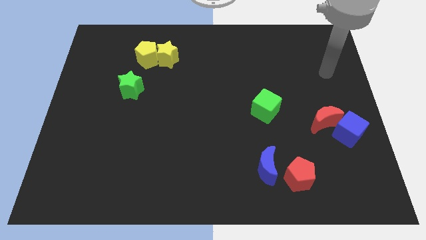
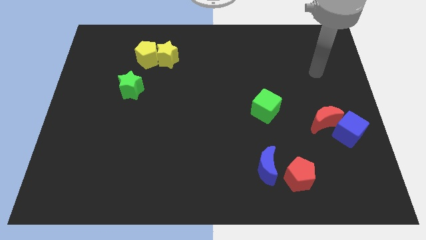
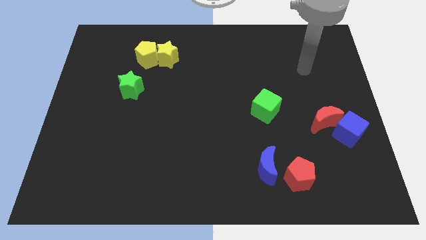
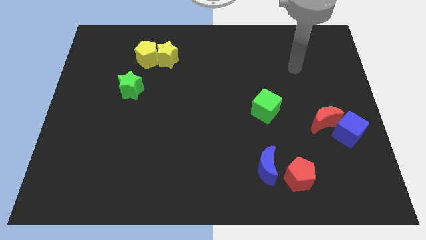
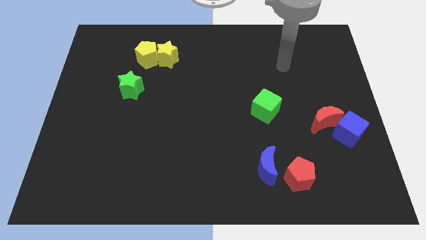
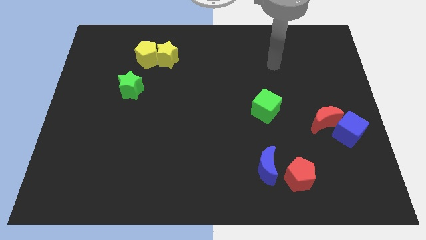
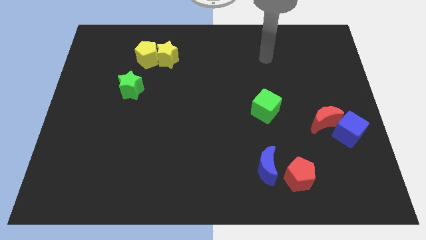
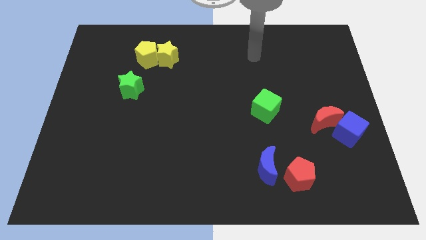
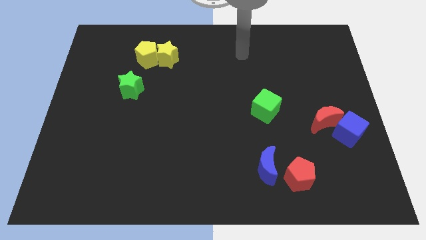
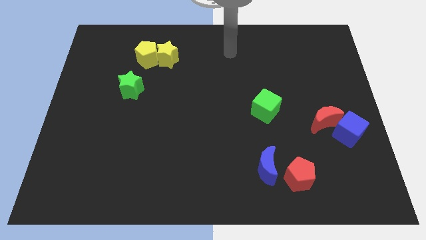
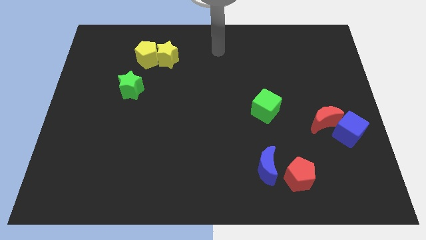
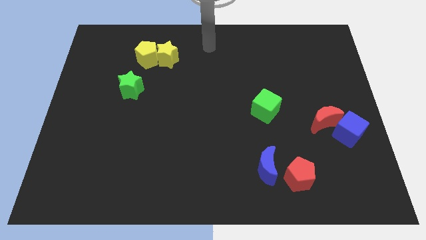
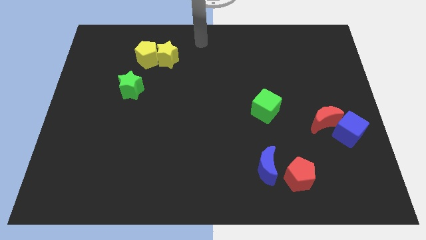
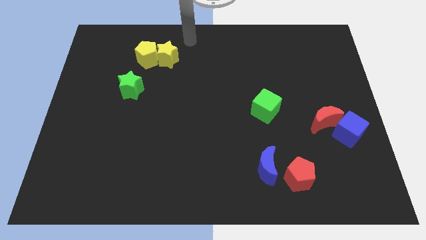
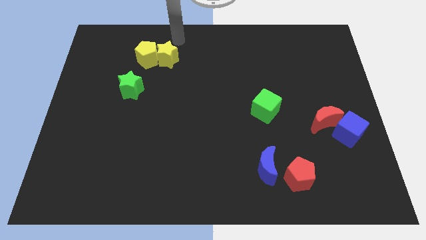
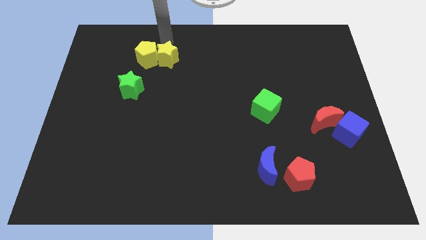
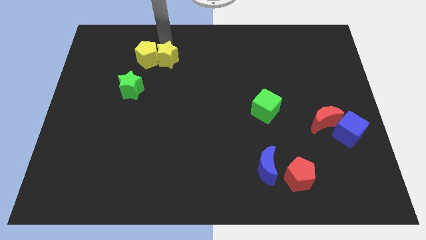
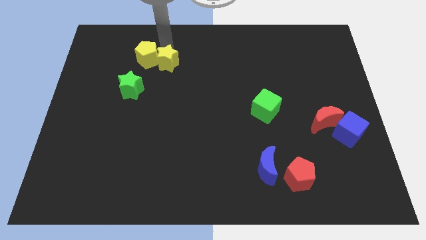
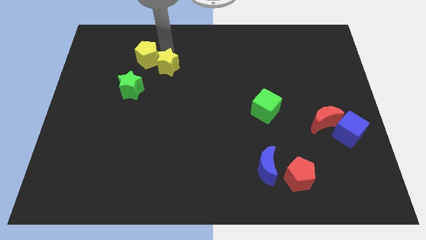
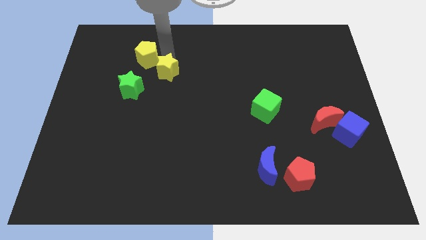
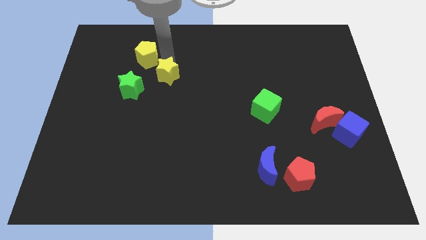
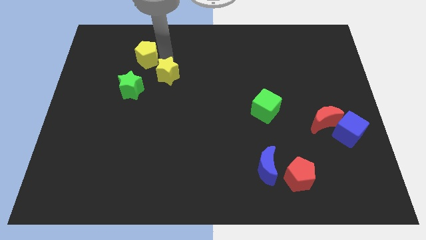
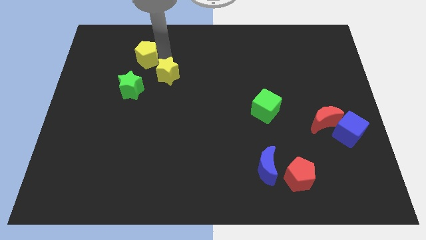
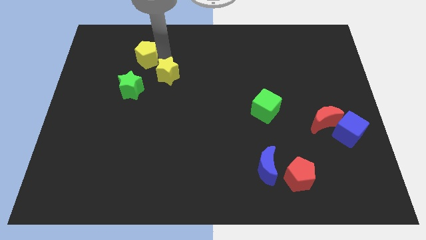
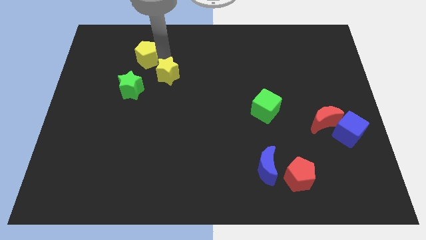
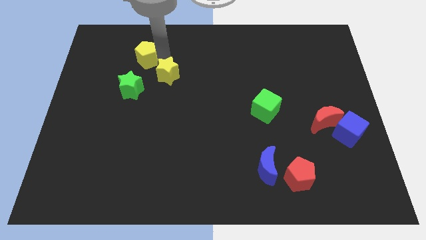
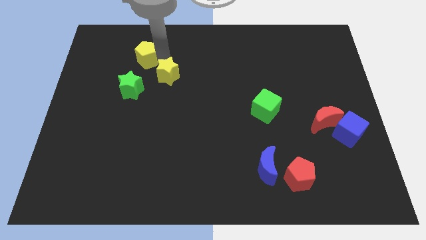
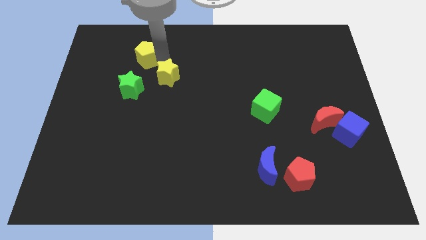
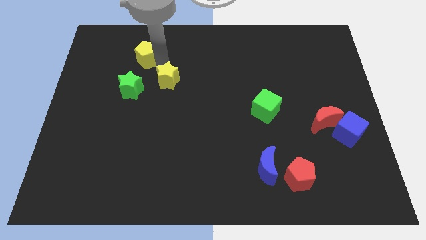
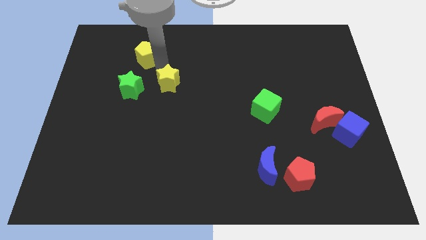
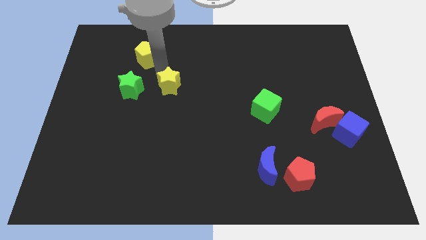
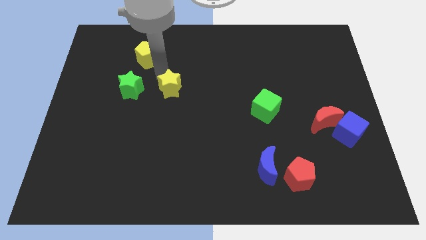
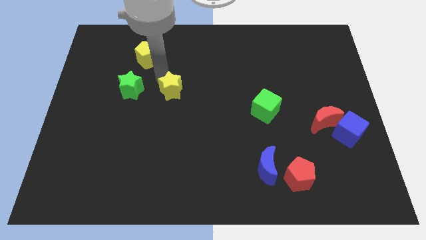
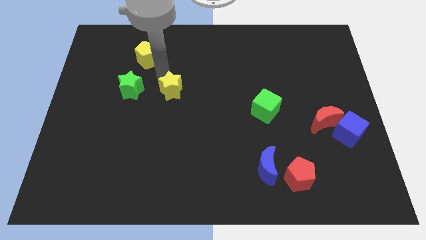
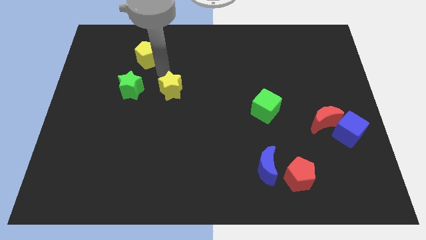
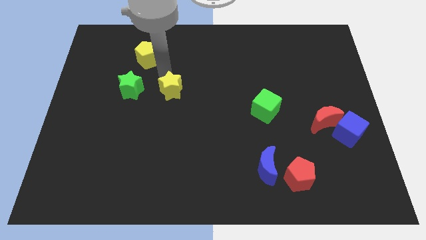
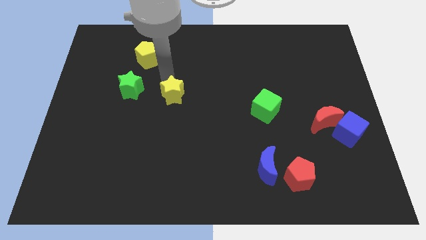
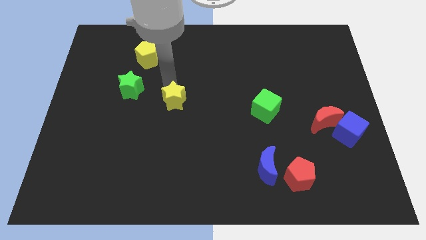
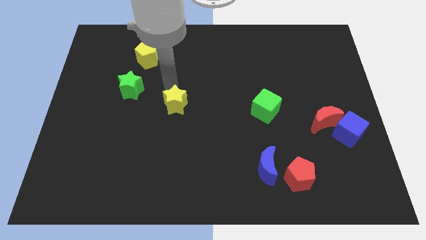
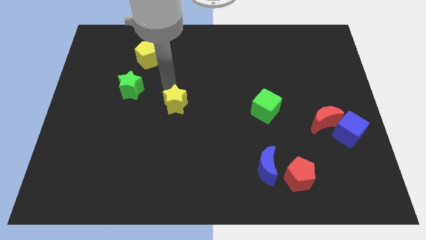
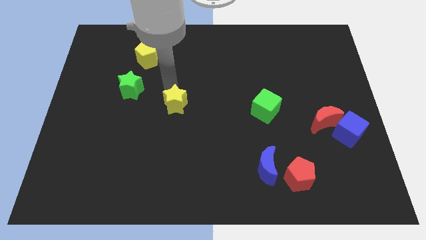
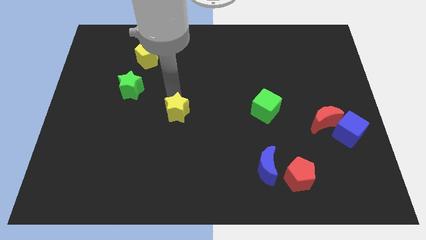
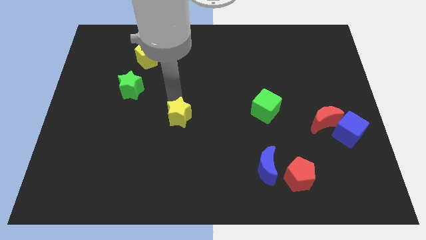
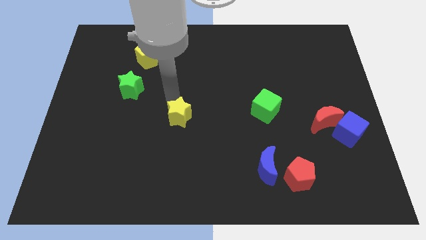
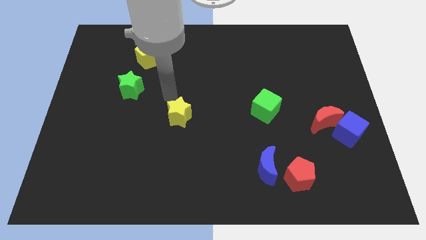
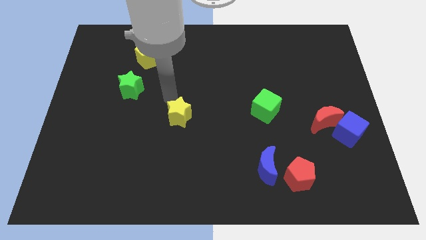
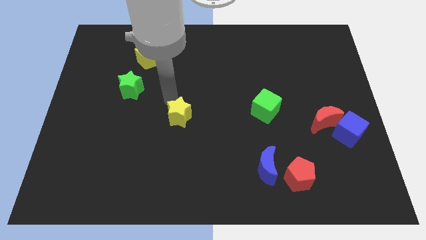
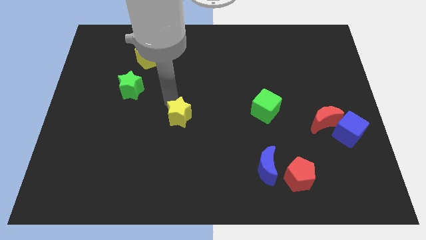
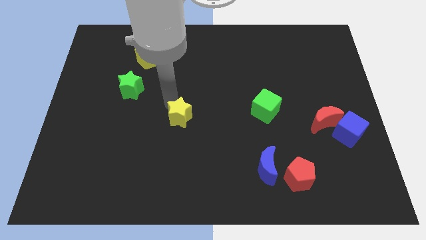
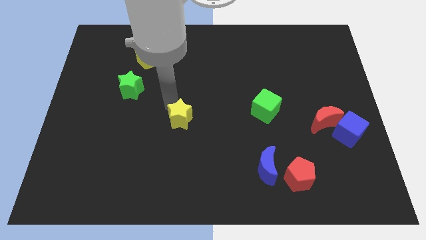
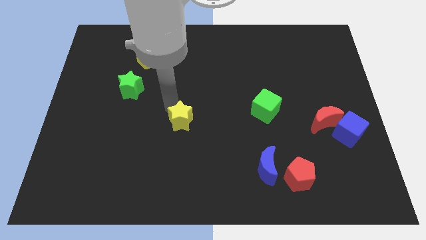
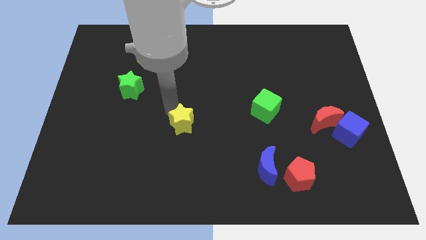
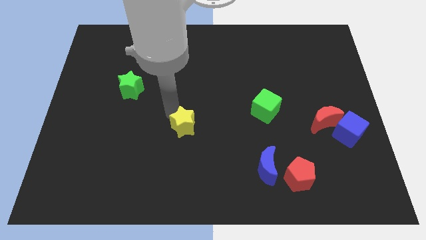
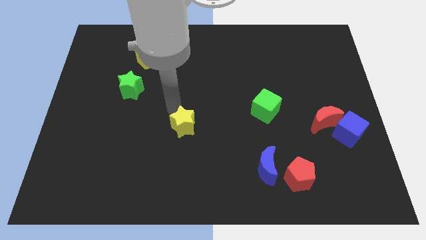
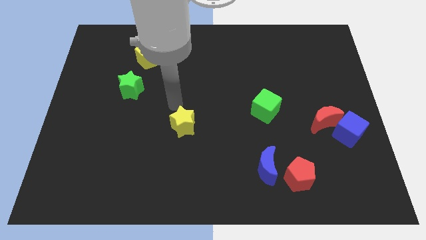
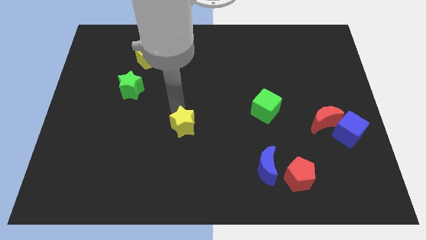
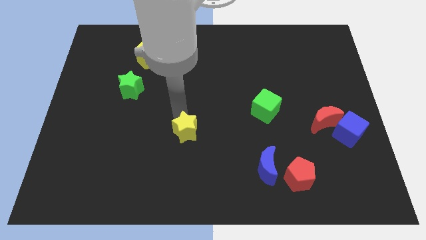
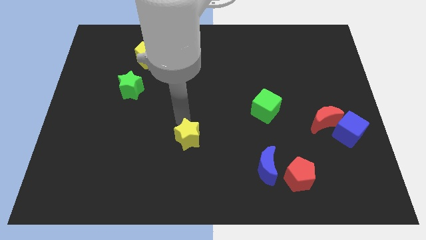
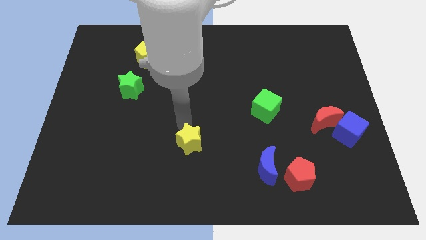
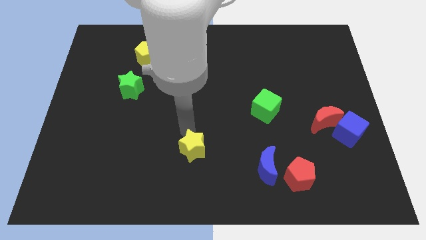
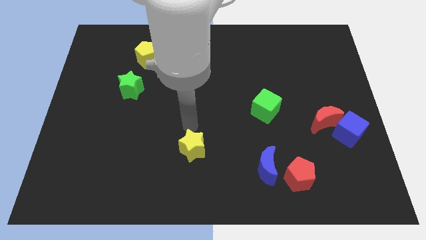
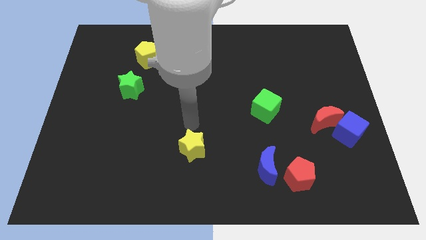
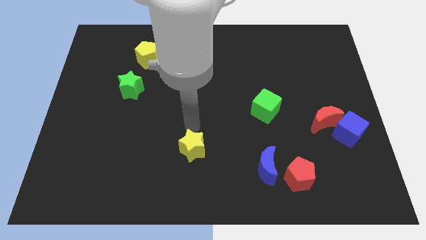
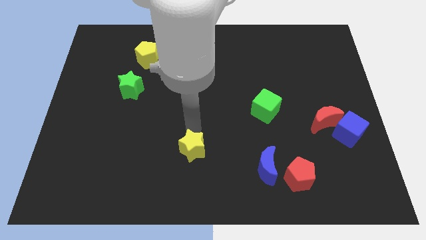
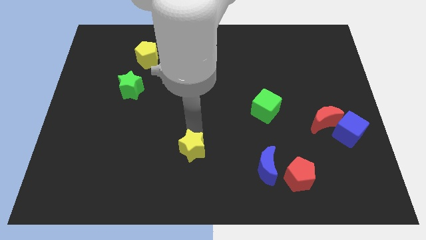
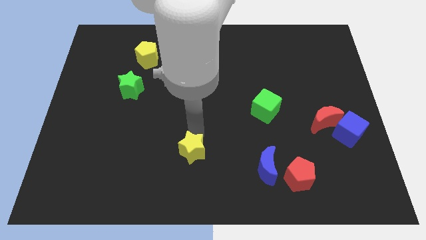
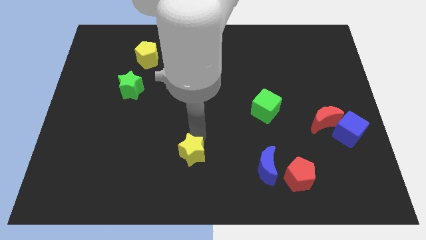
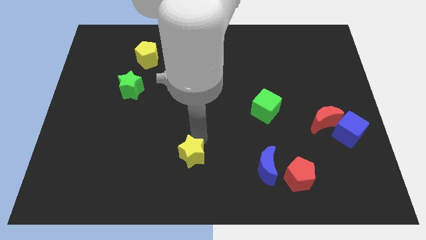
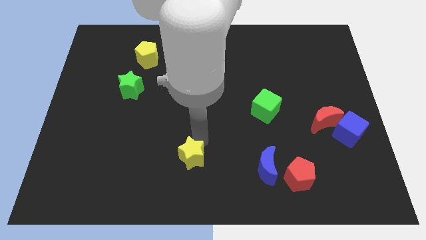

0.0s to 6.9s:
put the yellow star to the bottom
